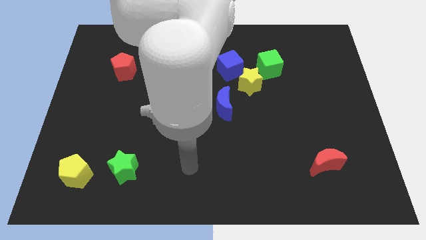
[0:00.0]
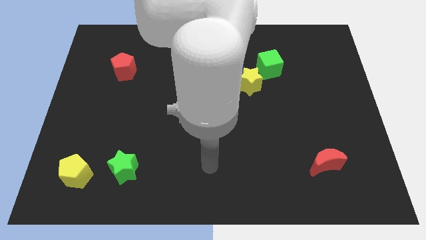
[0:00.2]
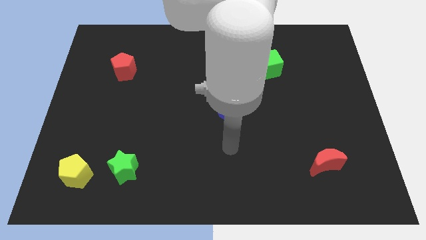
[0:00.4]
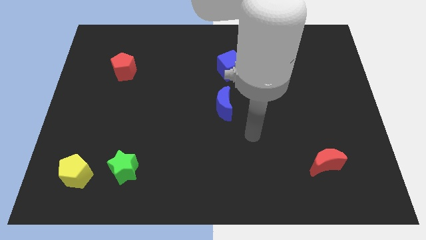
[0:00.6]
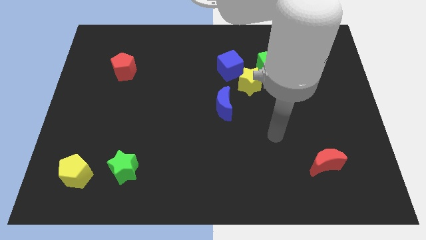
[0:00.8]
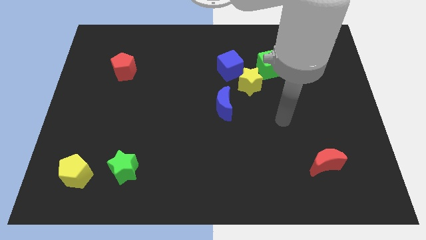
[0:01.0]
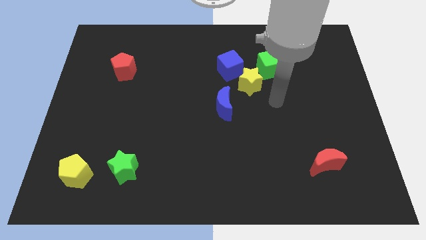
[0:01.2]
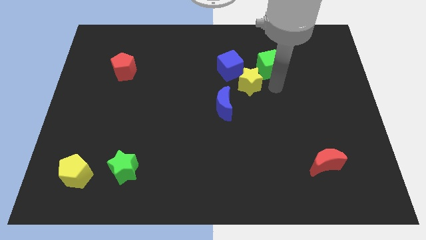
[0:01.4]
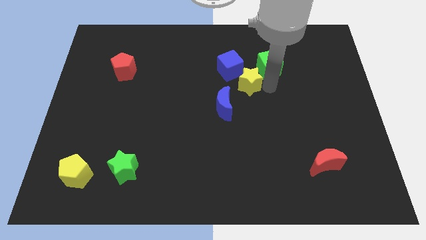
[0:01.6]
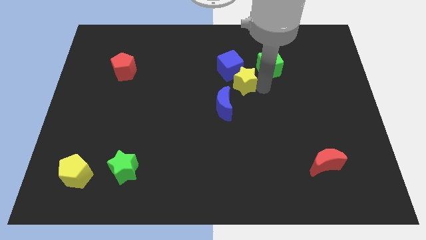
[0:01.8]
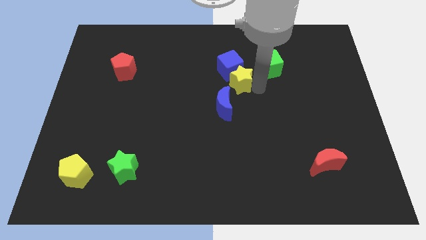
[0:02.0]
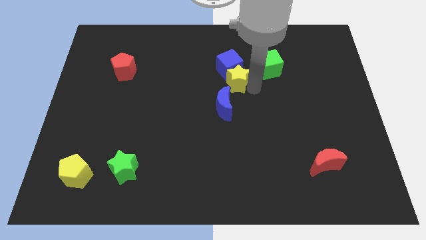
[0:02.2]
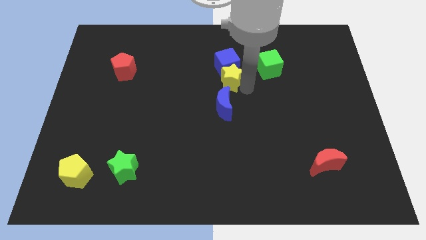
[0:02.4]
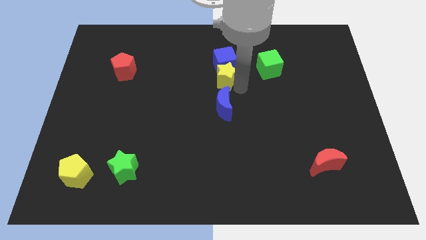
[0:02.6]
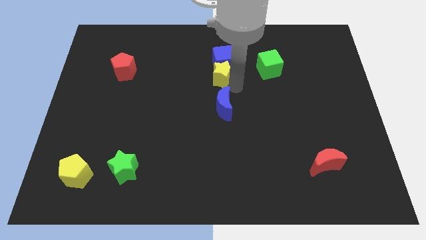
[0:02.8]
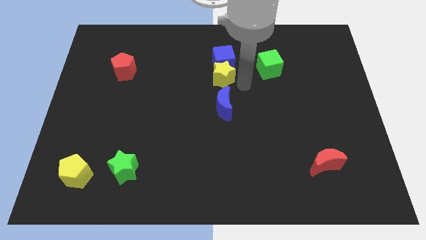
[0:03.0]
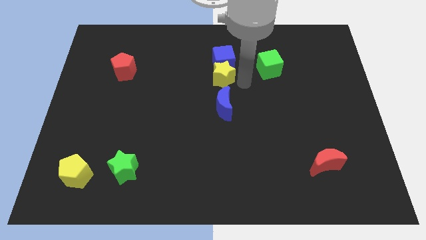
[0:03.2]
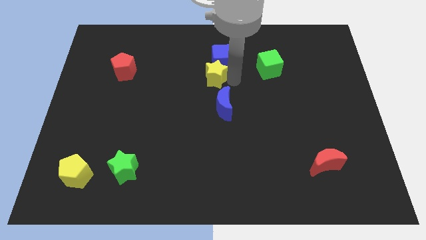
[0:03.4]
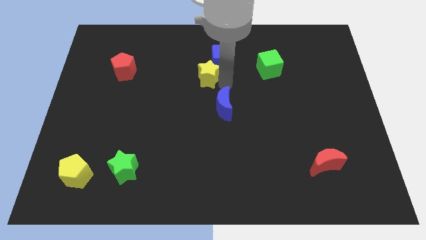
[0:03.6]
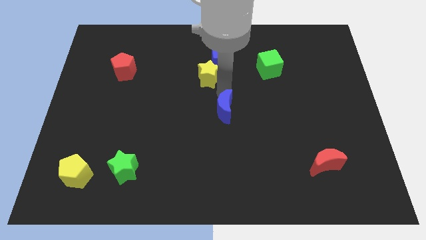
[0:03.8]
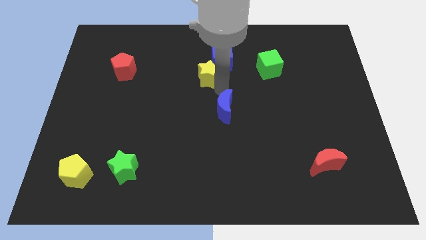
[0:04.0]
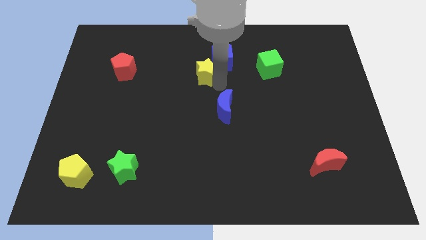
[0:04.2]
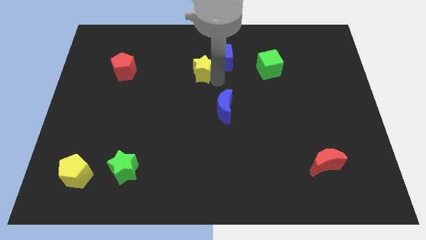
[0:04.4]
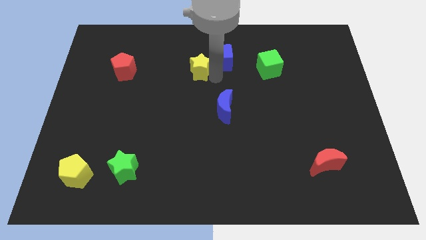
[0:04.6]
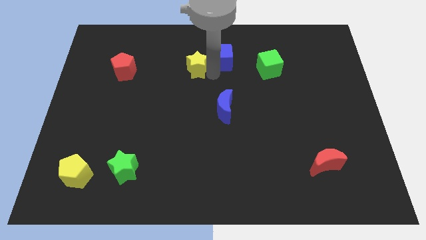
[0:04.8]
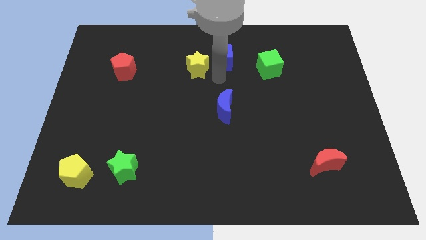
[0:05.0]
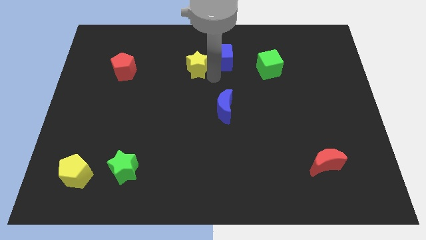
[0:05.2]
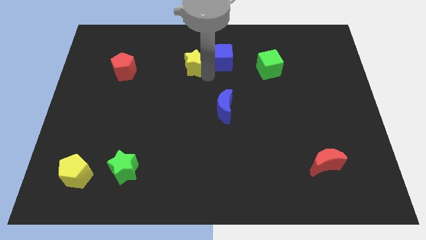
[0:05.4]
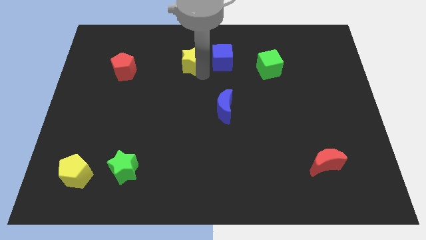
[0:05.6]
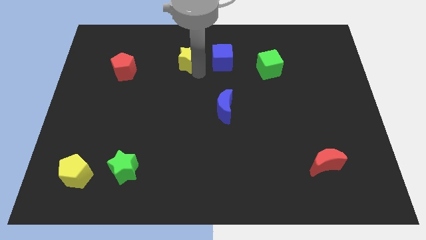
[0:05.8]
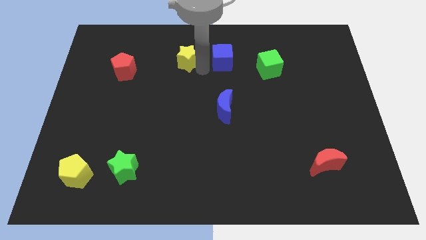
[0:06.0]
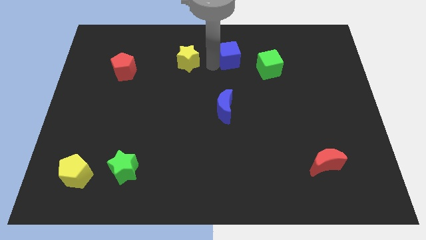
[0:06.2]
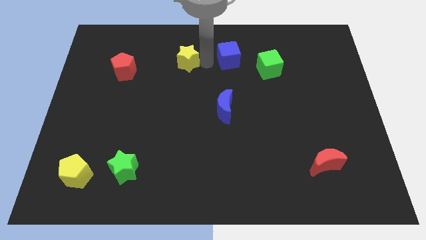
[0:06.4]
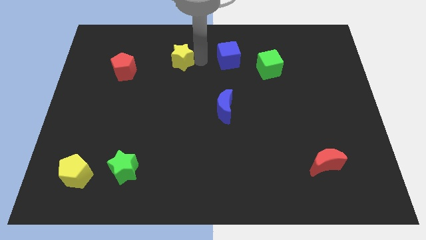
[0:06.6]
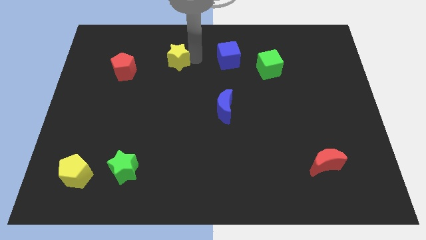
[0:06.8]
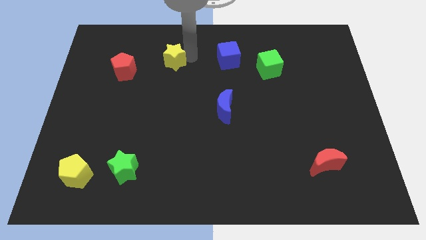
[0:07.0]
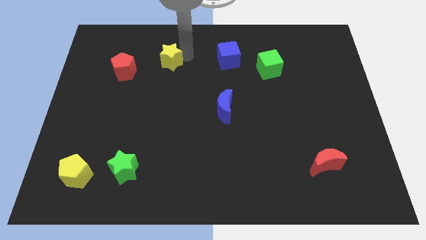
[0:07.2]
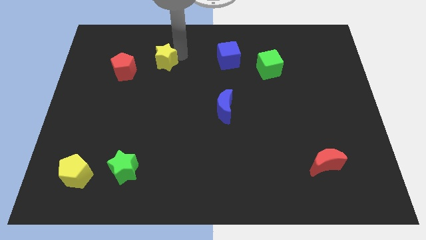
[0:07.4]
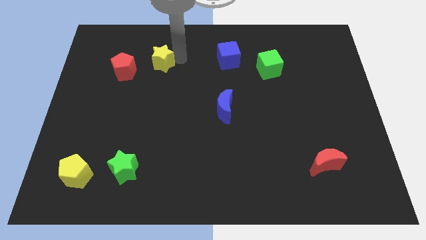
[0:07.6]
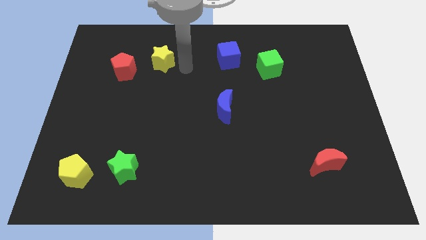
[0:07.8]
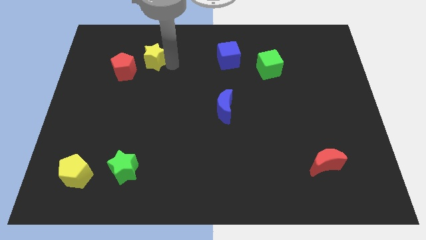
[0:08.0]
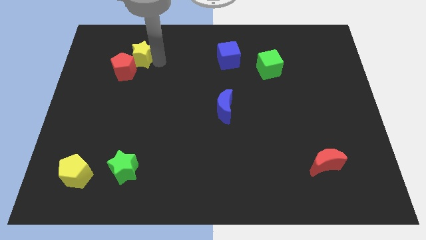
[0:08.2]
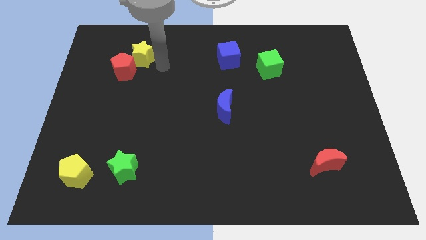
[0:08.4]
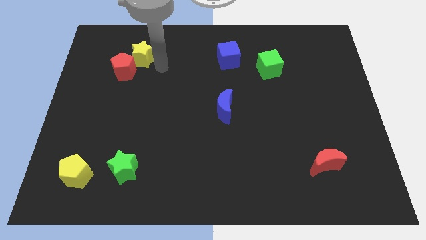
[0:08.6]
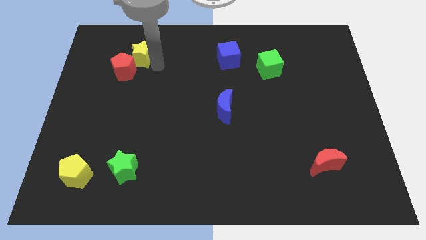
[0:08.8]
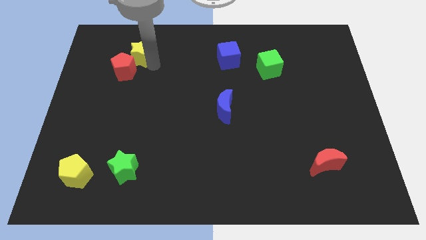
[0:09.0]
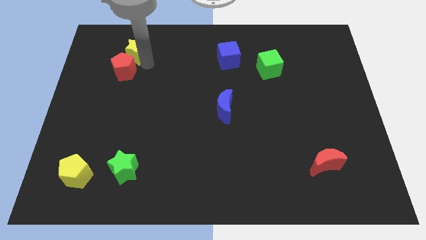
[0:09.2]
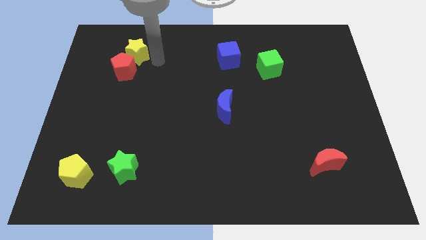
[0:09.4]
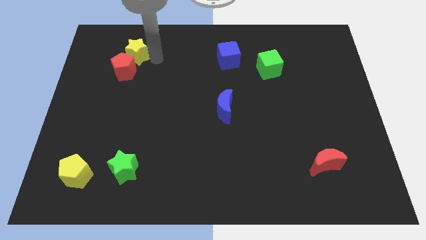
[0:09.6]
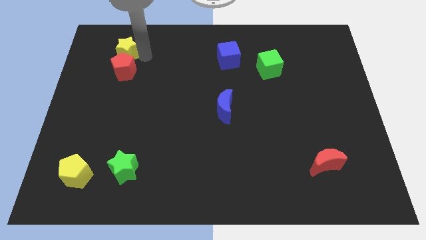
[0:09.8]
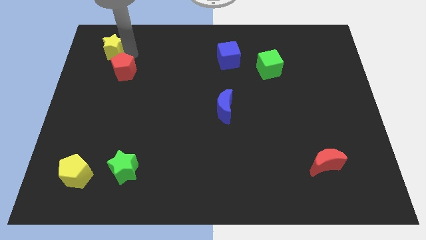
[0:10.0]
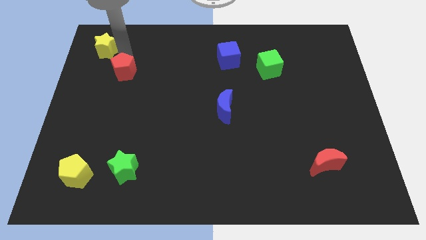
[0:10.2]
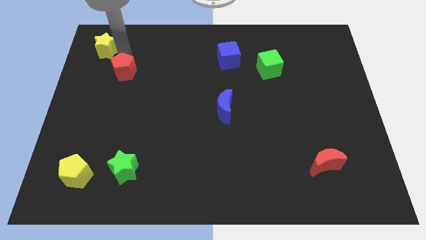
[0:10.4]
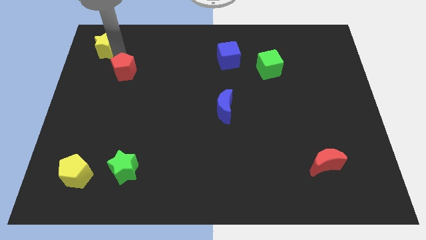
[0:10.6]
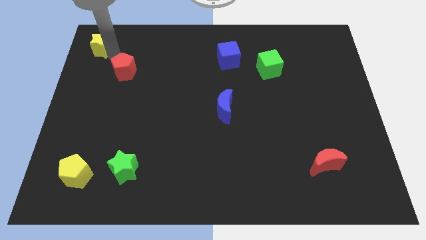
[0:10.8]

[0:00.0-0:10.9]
put the yellow star to the top left

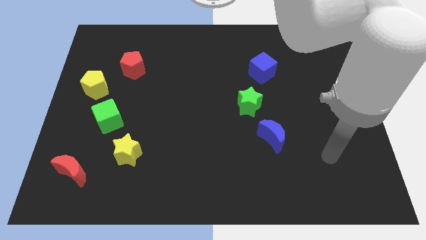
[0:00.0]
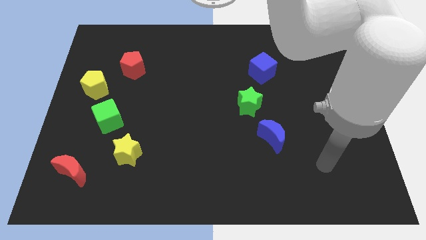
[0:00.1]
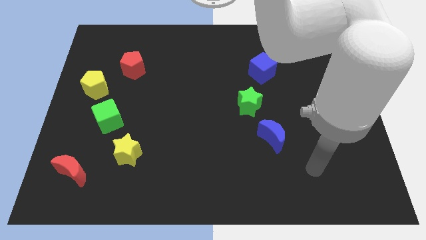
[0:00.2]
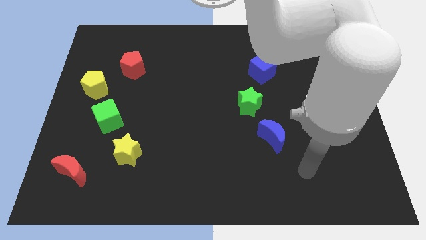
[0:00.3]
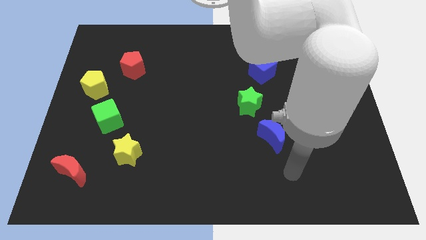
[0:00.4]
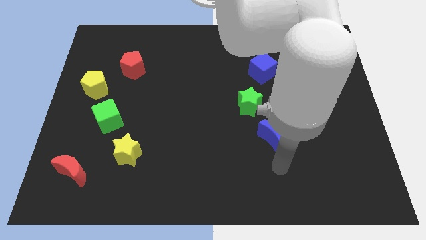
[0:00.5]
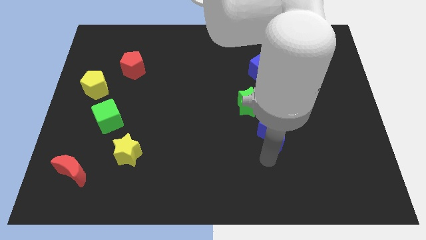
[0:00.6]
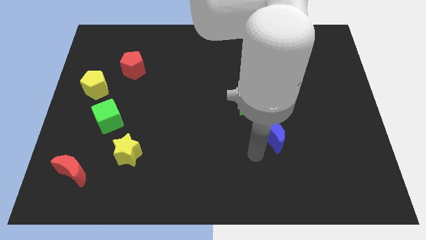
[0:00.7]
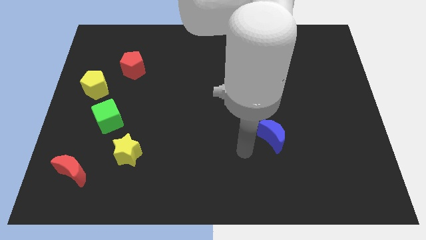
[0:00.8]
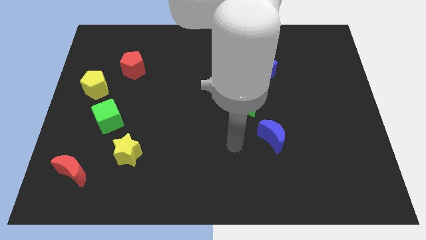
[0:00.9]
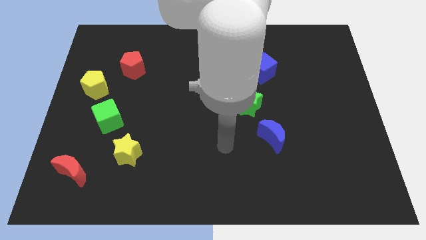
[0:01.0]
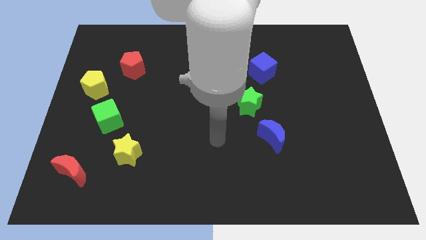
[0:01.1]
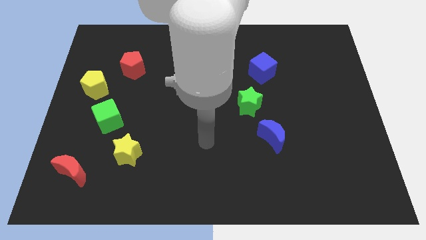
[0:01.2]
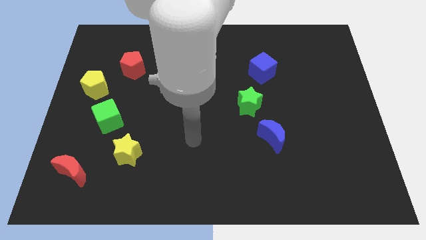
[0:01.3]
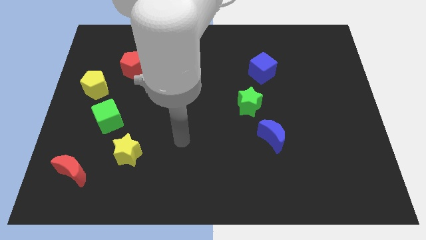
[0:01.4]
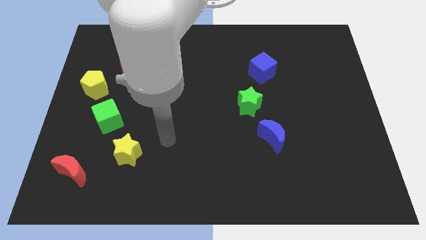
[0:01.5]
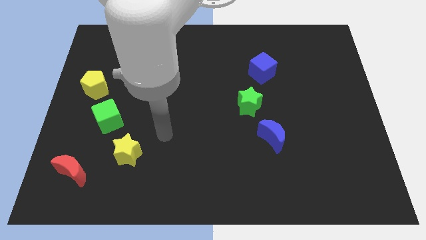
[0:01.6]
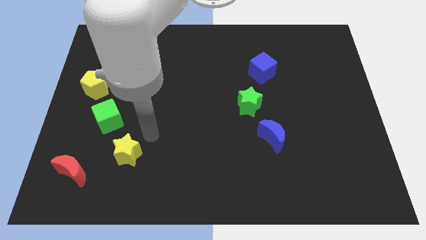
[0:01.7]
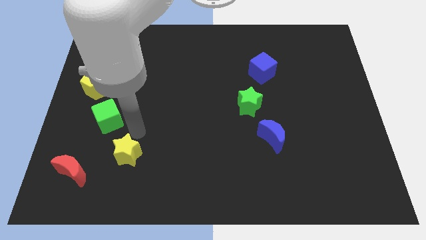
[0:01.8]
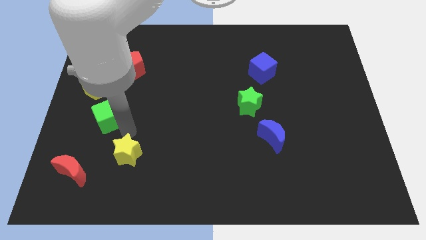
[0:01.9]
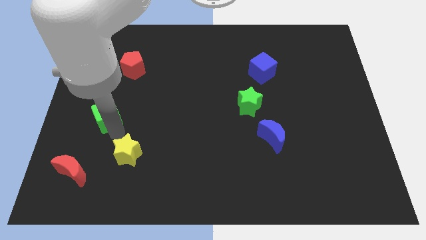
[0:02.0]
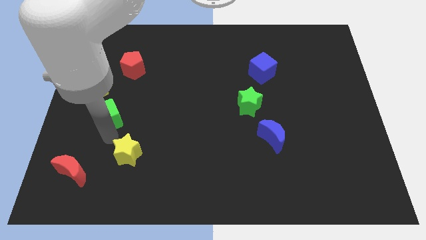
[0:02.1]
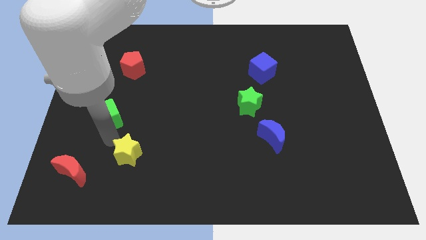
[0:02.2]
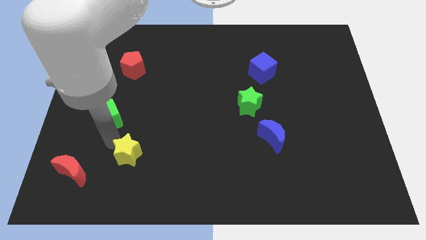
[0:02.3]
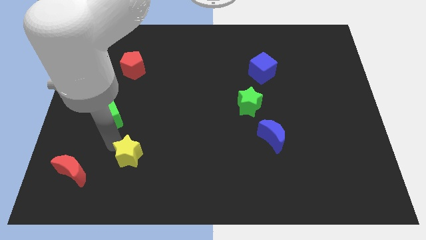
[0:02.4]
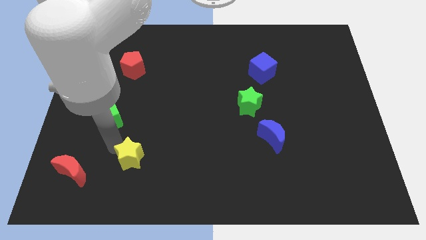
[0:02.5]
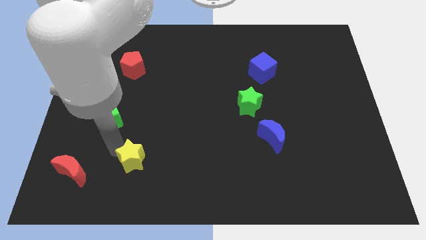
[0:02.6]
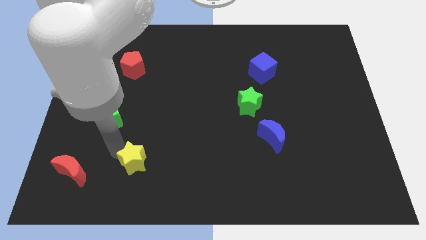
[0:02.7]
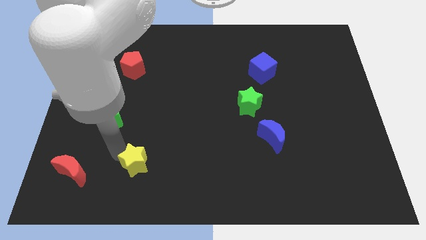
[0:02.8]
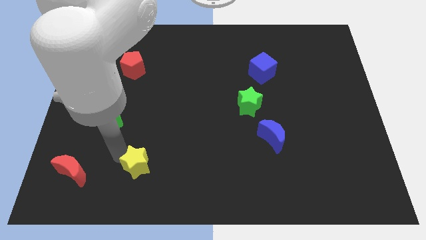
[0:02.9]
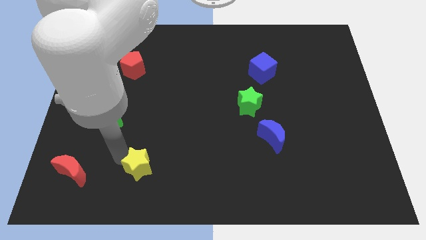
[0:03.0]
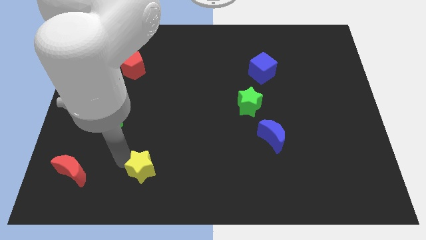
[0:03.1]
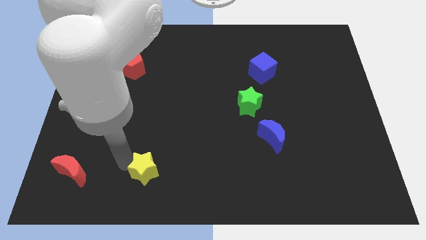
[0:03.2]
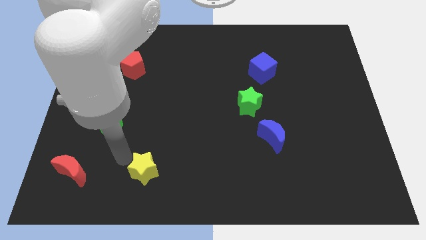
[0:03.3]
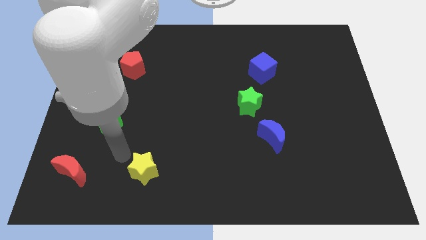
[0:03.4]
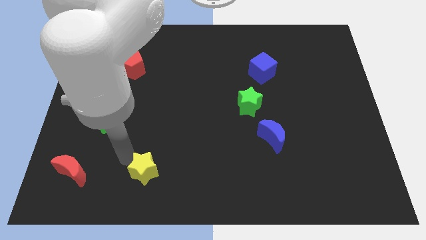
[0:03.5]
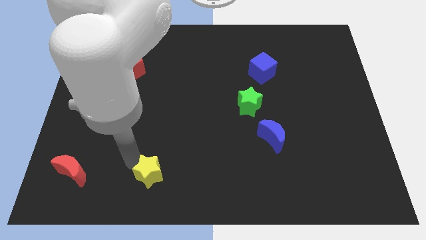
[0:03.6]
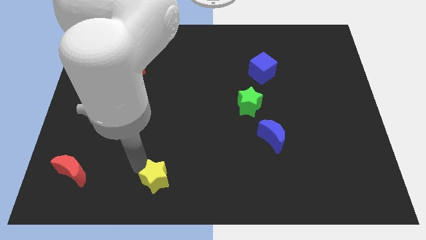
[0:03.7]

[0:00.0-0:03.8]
move the yellow star to the bottom
